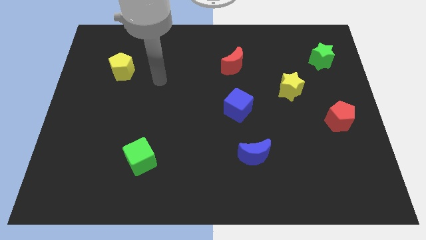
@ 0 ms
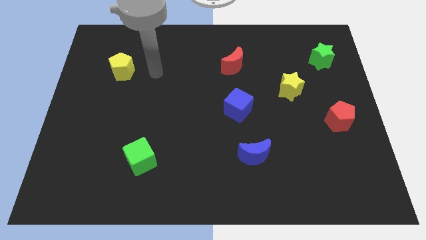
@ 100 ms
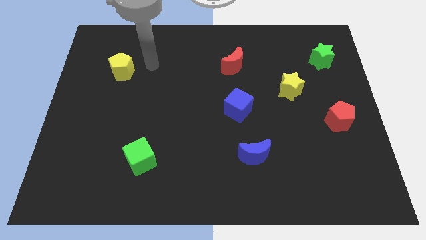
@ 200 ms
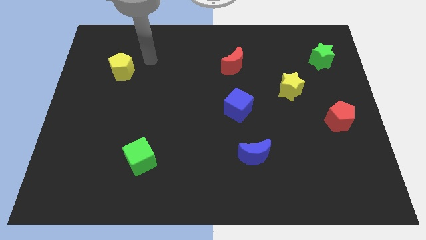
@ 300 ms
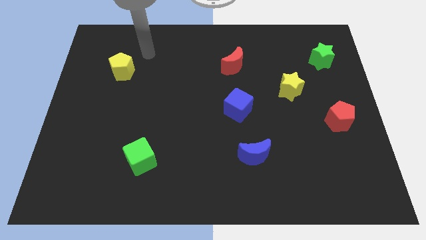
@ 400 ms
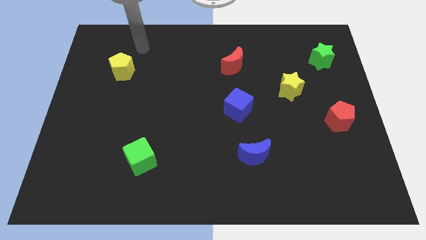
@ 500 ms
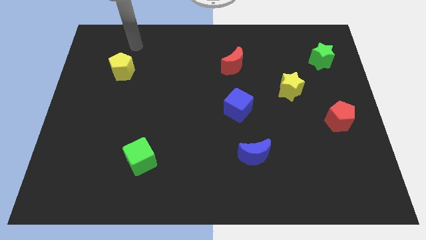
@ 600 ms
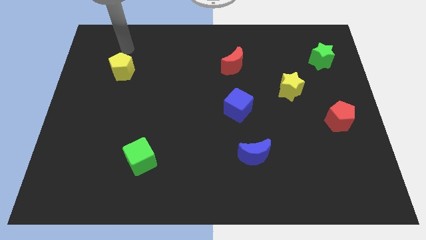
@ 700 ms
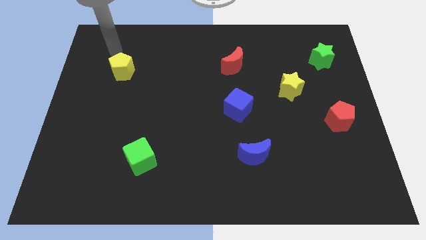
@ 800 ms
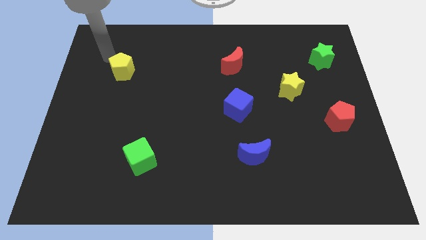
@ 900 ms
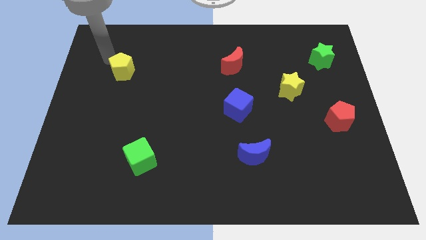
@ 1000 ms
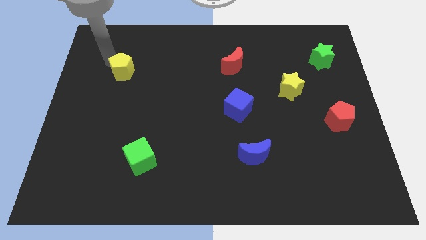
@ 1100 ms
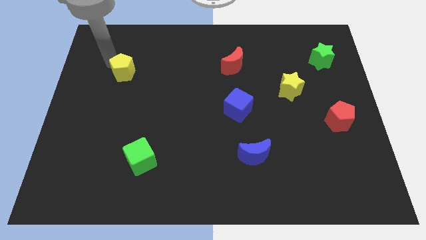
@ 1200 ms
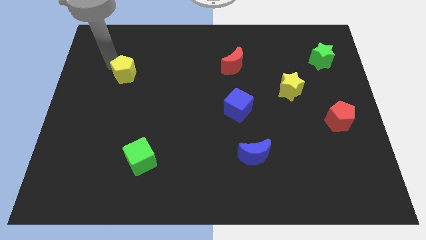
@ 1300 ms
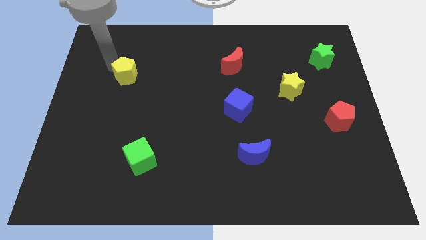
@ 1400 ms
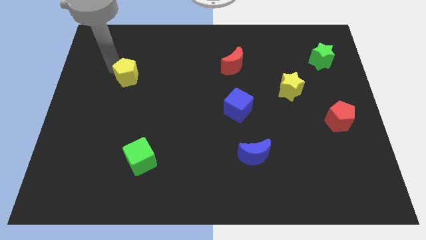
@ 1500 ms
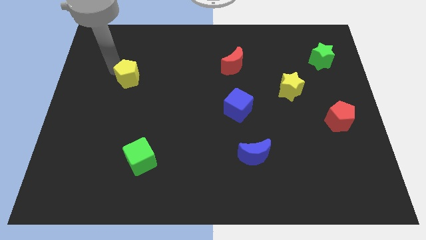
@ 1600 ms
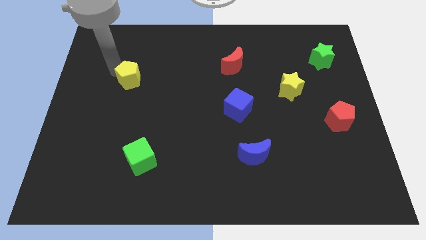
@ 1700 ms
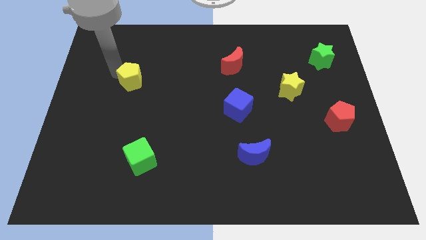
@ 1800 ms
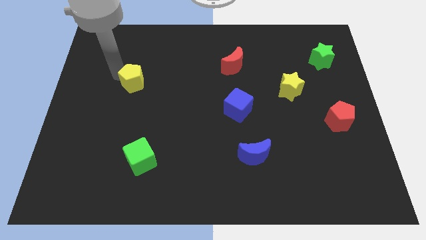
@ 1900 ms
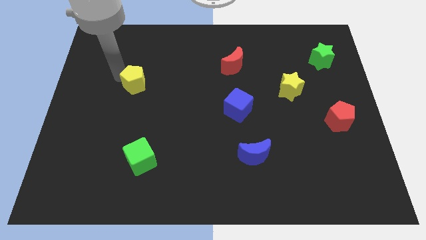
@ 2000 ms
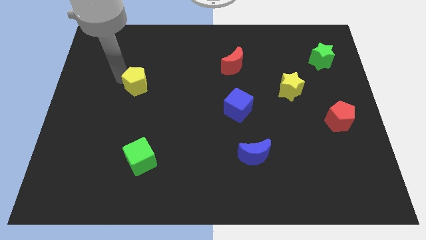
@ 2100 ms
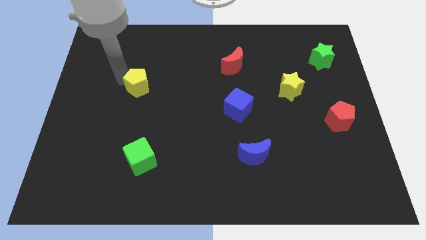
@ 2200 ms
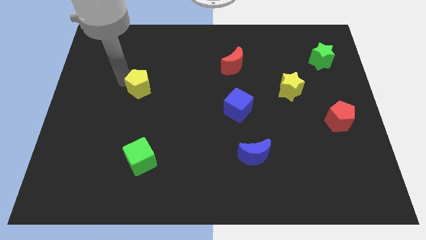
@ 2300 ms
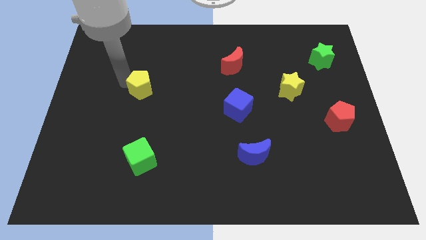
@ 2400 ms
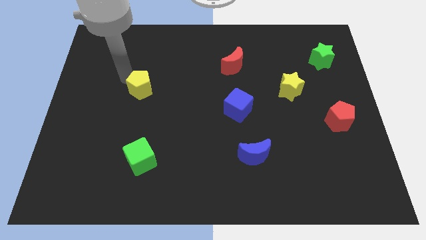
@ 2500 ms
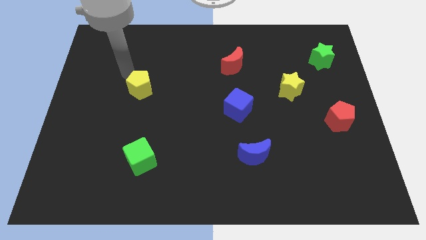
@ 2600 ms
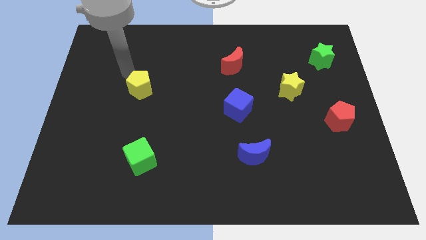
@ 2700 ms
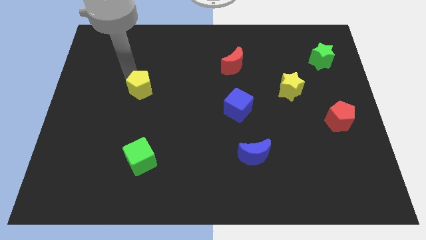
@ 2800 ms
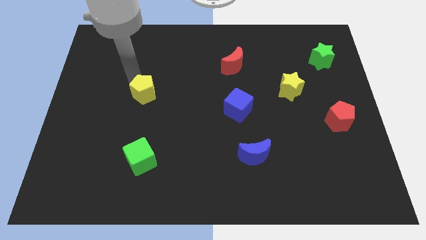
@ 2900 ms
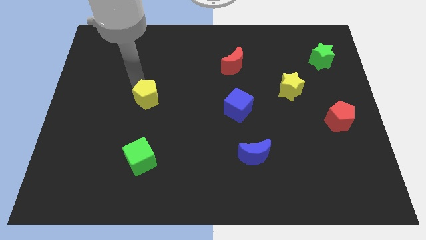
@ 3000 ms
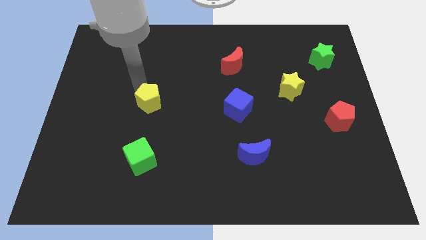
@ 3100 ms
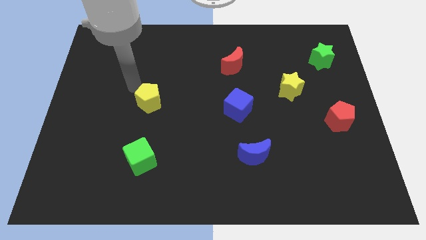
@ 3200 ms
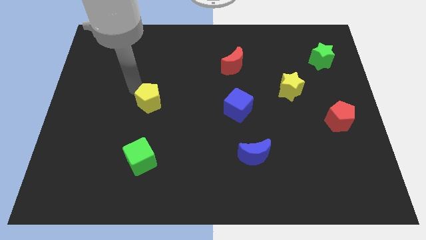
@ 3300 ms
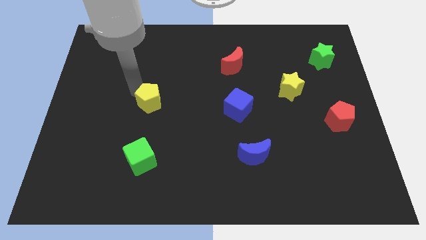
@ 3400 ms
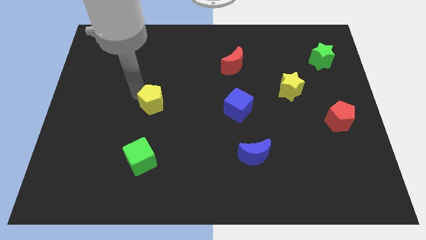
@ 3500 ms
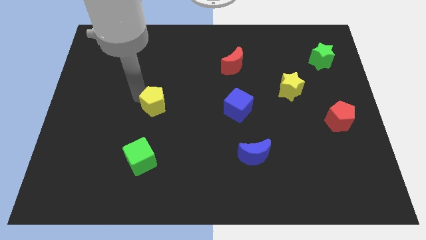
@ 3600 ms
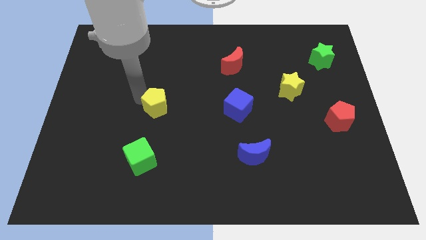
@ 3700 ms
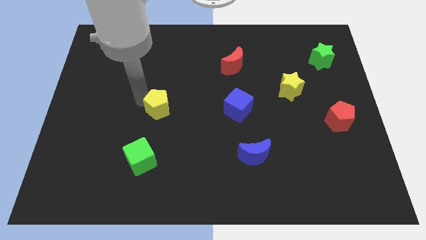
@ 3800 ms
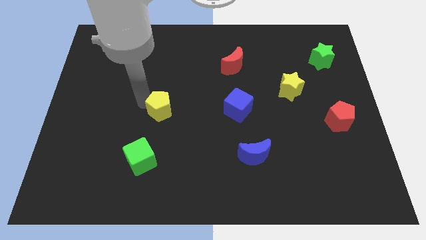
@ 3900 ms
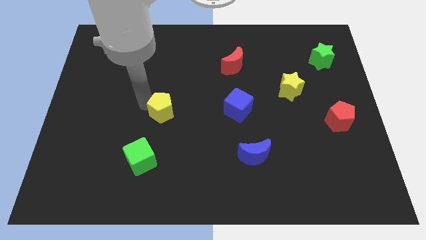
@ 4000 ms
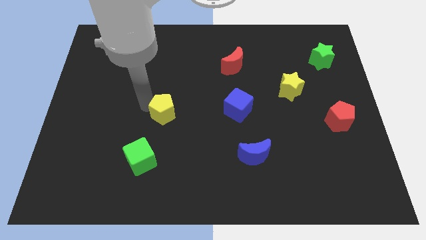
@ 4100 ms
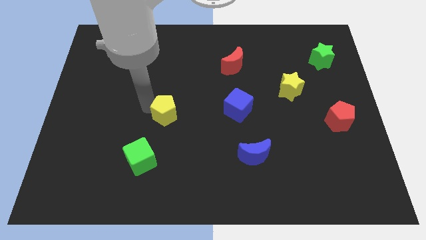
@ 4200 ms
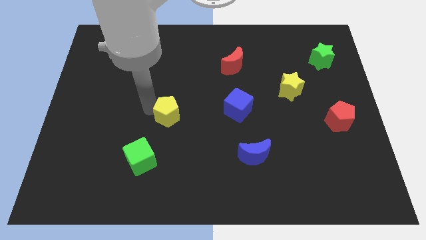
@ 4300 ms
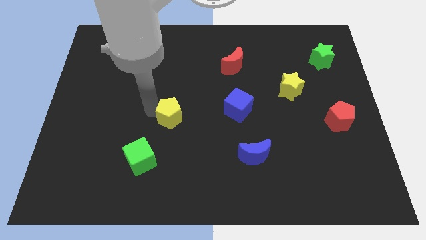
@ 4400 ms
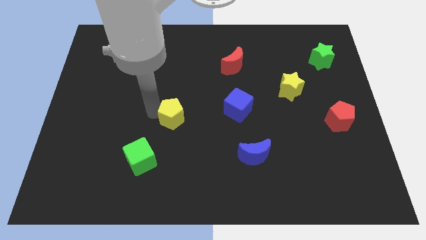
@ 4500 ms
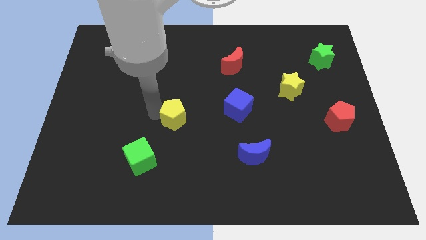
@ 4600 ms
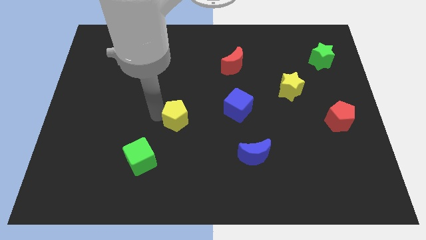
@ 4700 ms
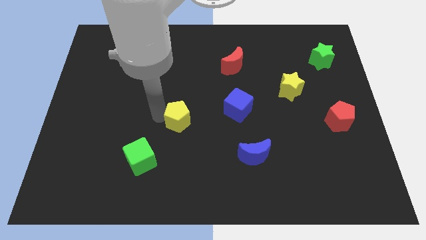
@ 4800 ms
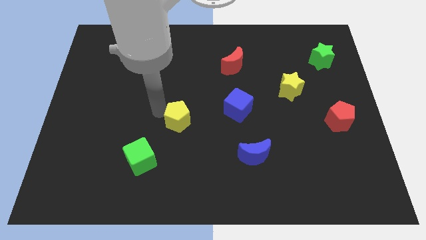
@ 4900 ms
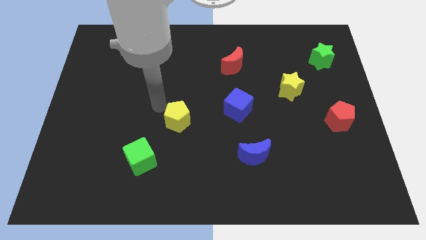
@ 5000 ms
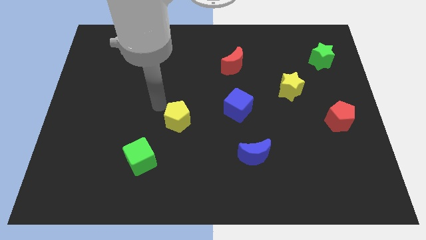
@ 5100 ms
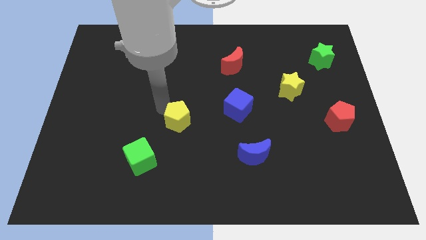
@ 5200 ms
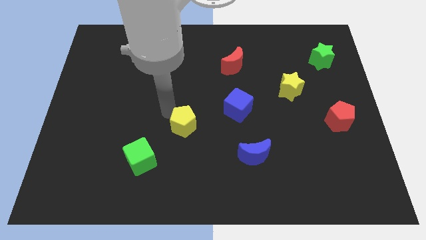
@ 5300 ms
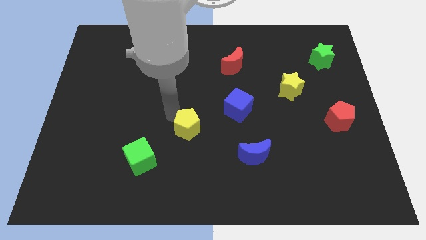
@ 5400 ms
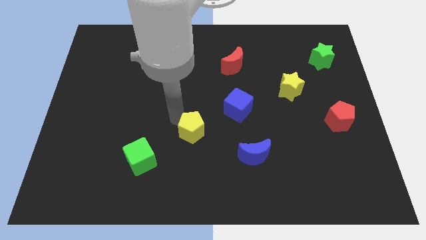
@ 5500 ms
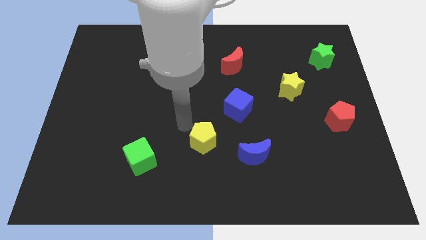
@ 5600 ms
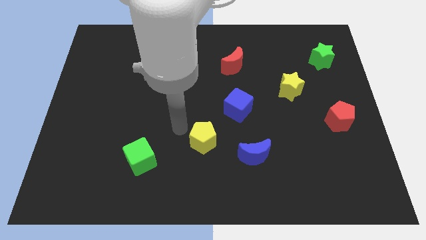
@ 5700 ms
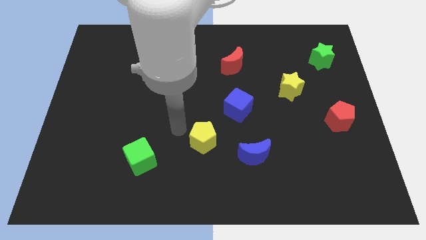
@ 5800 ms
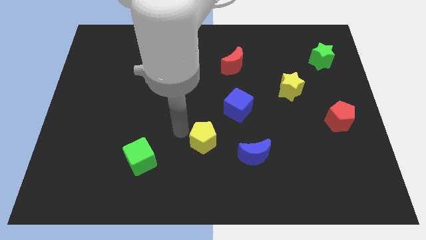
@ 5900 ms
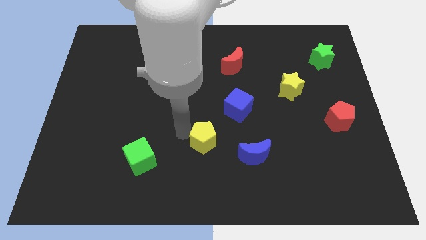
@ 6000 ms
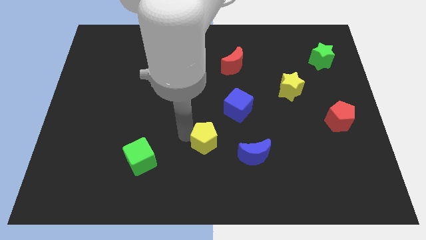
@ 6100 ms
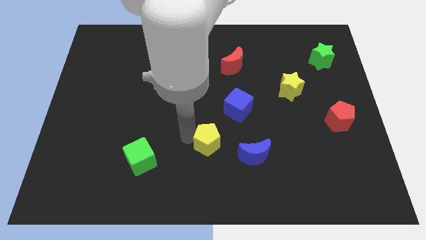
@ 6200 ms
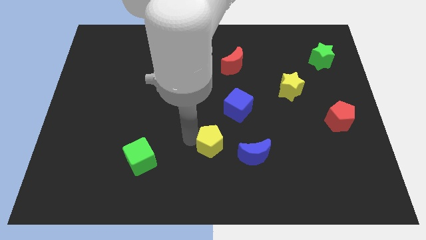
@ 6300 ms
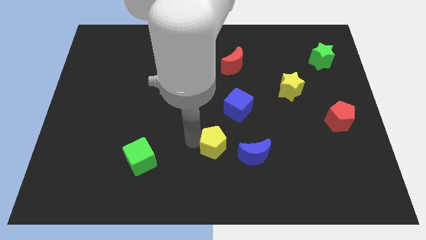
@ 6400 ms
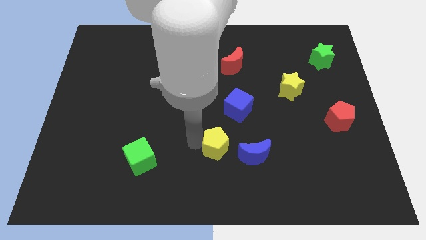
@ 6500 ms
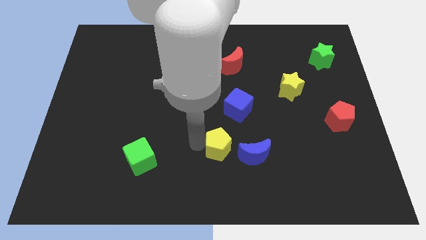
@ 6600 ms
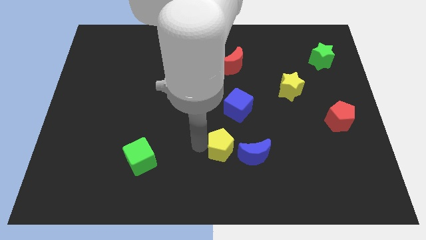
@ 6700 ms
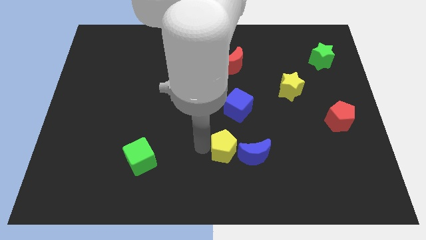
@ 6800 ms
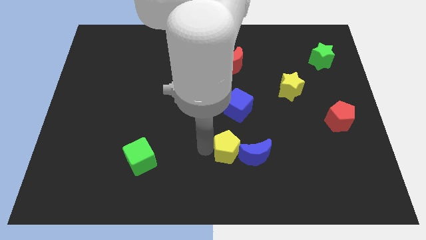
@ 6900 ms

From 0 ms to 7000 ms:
push the yellow pentagon towards the blue moon

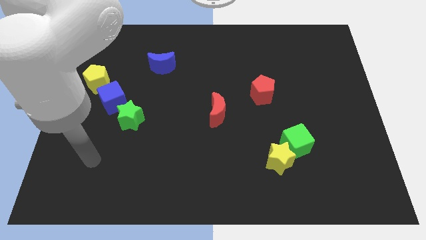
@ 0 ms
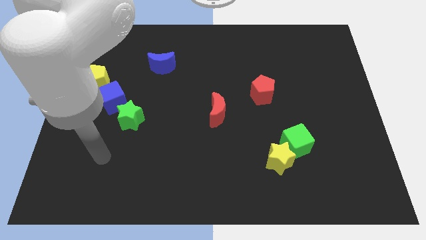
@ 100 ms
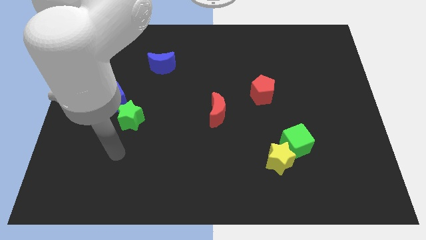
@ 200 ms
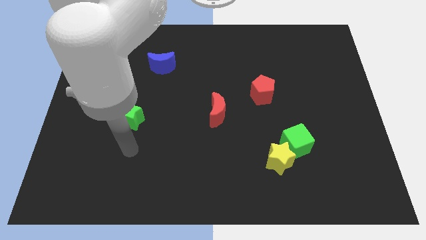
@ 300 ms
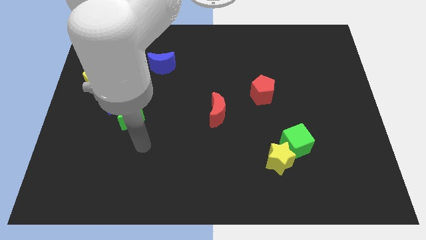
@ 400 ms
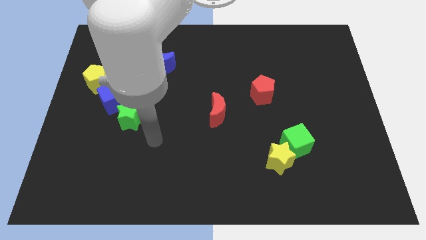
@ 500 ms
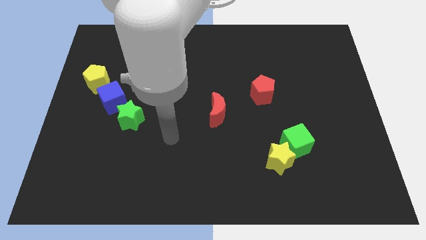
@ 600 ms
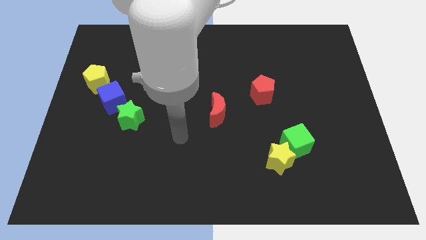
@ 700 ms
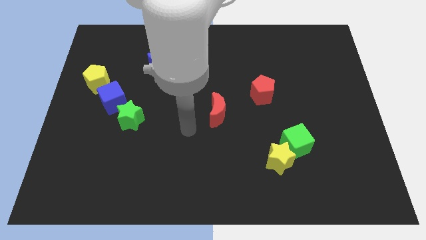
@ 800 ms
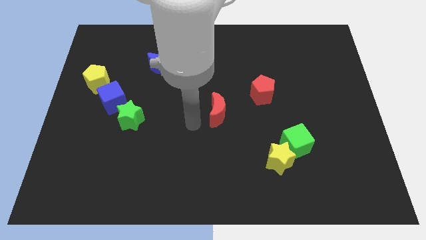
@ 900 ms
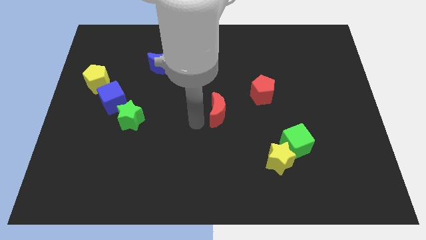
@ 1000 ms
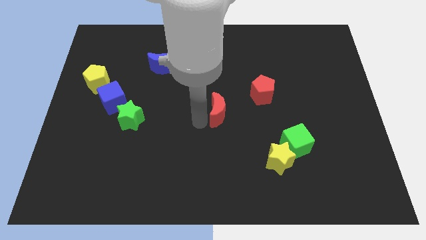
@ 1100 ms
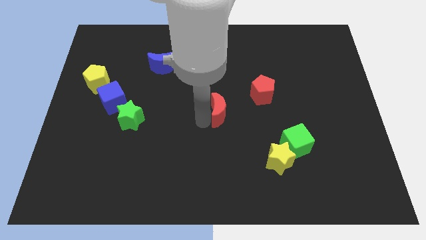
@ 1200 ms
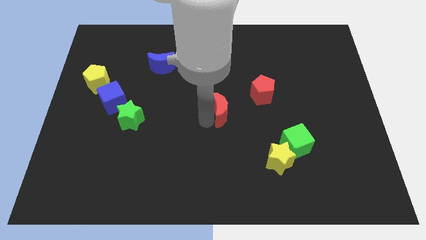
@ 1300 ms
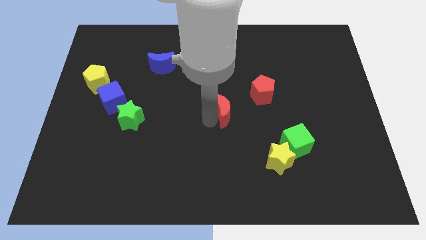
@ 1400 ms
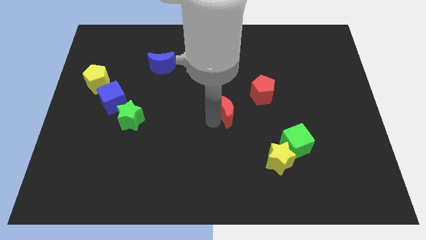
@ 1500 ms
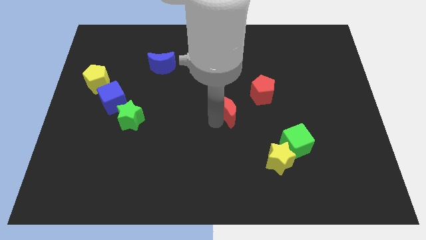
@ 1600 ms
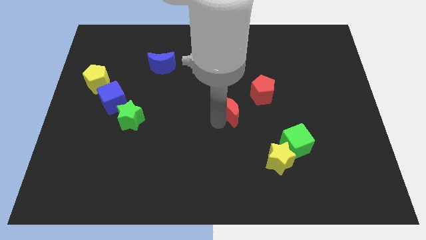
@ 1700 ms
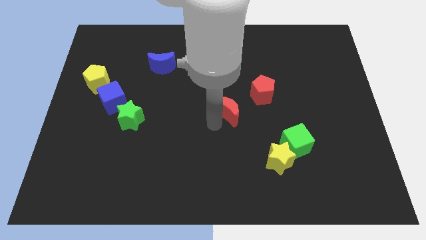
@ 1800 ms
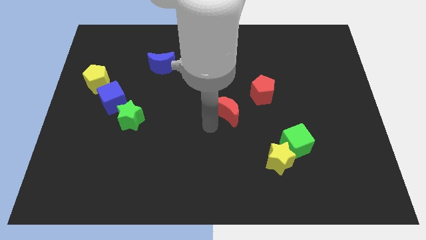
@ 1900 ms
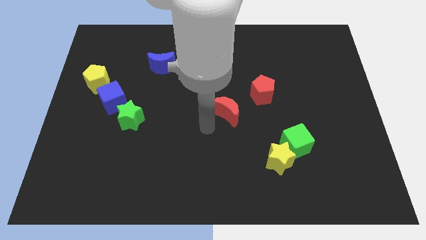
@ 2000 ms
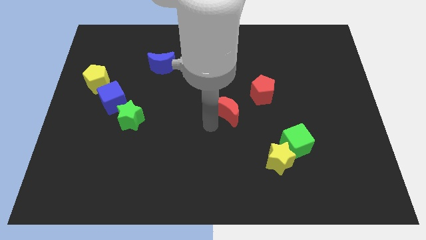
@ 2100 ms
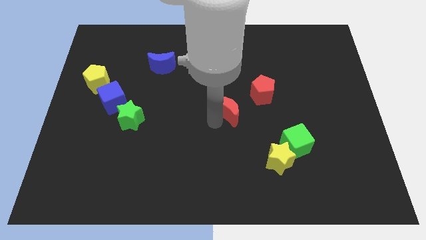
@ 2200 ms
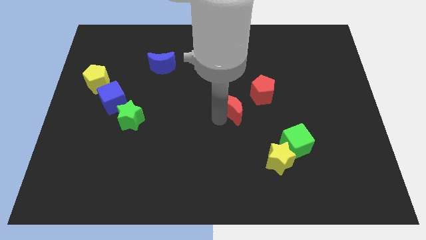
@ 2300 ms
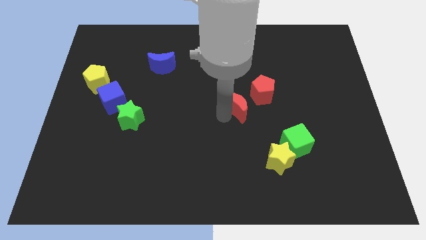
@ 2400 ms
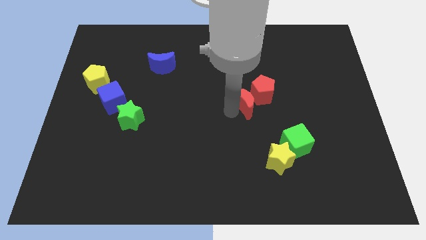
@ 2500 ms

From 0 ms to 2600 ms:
put the red moon next to the red pentagon
